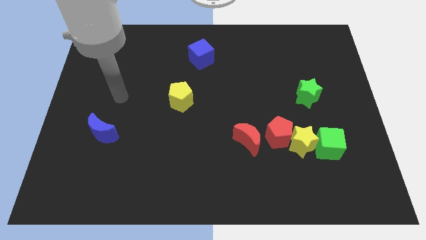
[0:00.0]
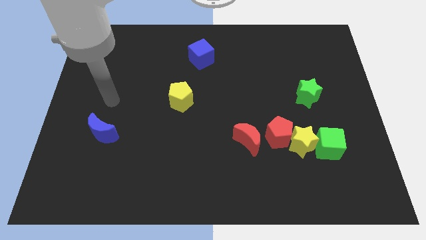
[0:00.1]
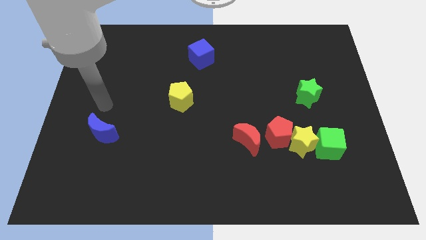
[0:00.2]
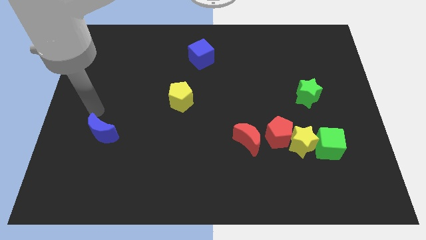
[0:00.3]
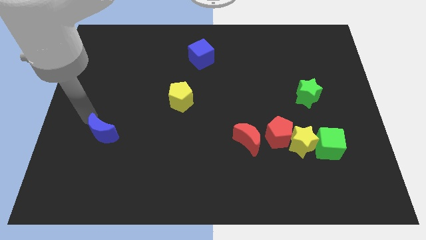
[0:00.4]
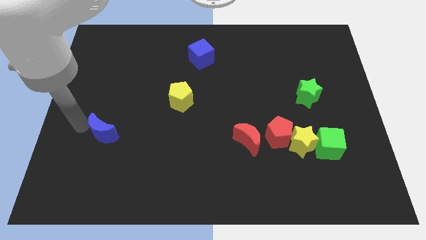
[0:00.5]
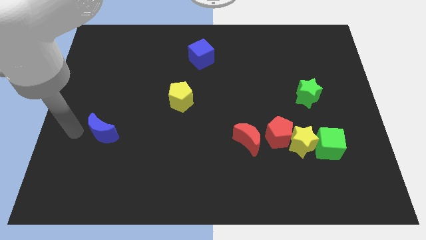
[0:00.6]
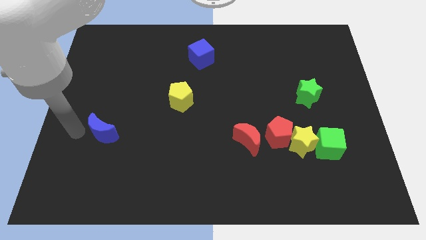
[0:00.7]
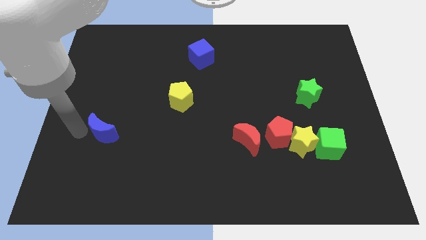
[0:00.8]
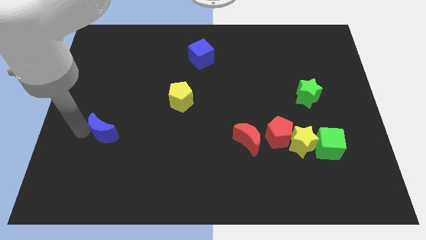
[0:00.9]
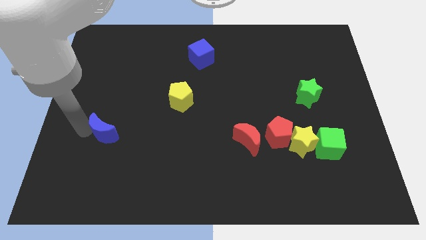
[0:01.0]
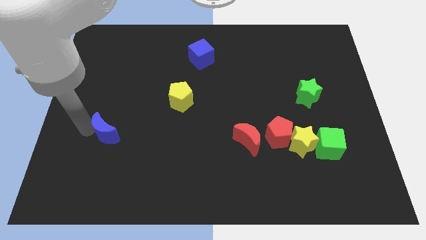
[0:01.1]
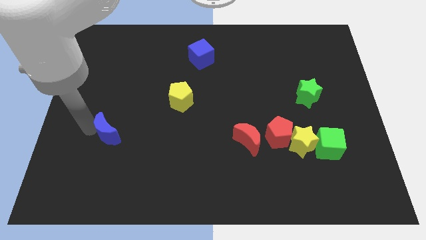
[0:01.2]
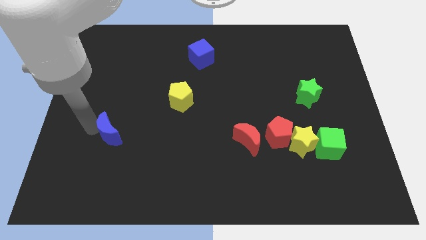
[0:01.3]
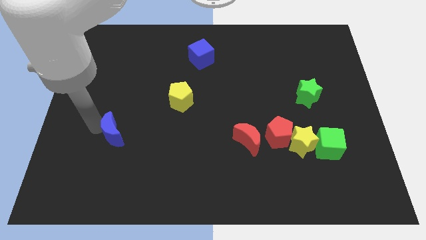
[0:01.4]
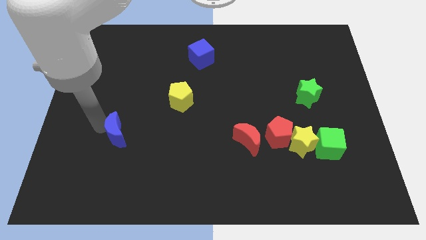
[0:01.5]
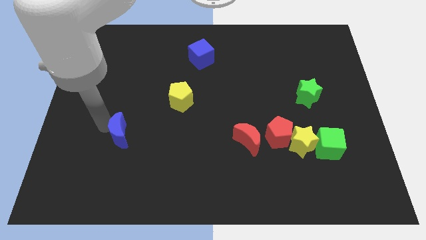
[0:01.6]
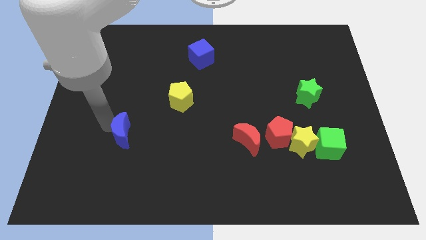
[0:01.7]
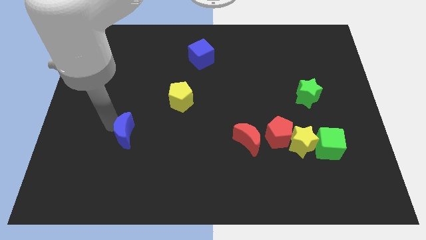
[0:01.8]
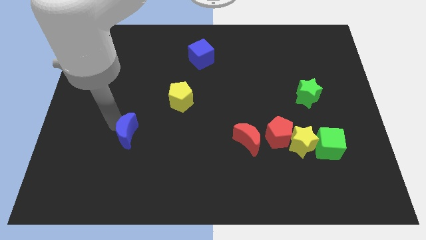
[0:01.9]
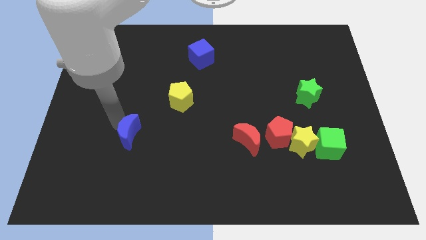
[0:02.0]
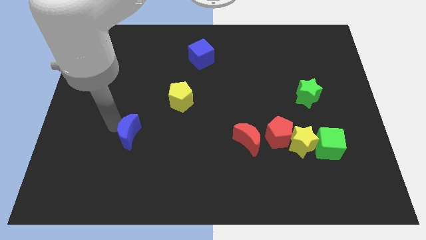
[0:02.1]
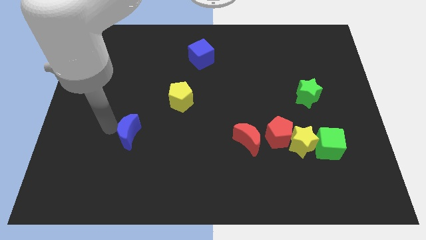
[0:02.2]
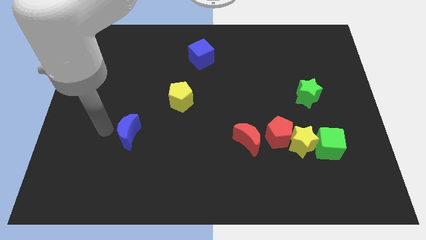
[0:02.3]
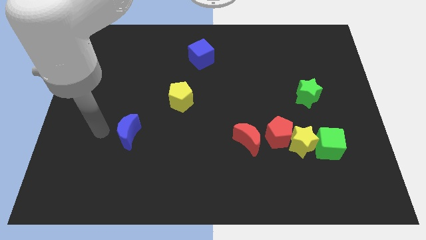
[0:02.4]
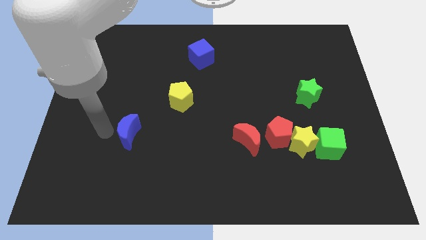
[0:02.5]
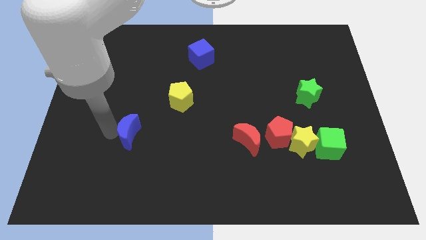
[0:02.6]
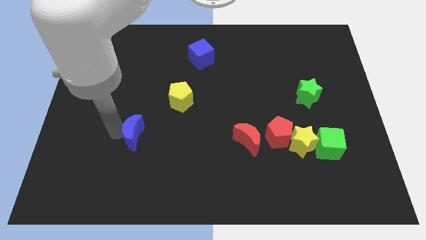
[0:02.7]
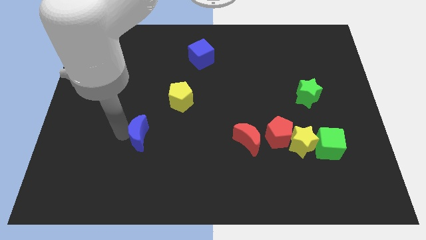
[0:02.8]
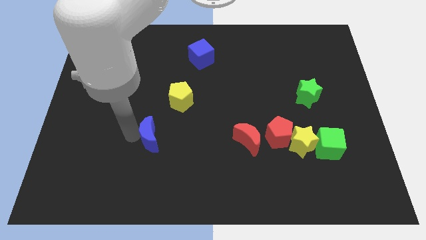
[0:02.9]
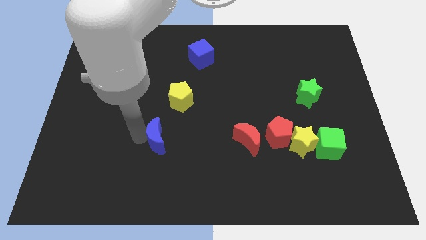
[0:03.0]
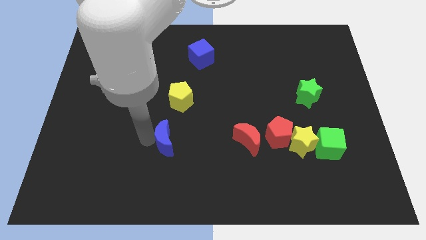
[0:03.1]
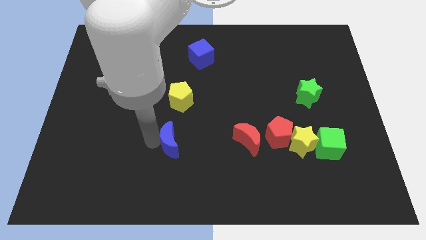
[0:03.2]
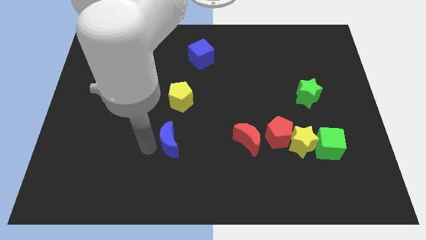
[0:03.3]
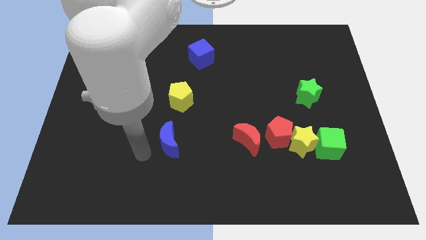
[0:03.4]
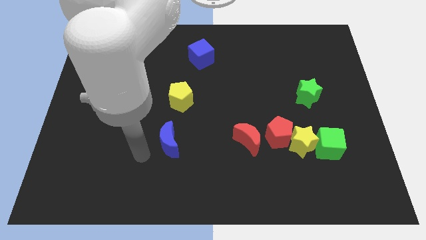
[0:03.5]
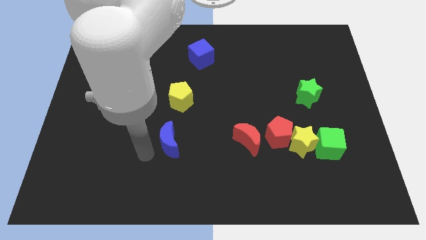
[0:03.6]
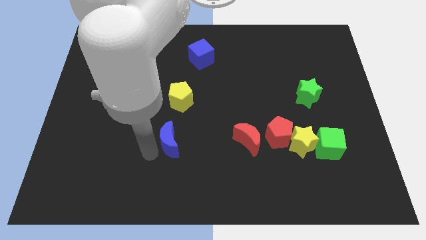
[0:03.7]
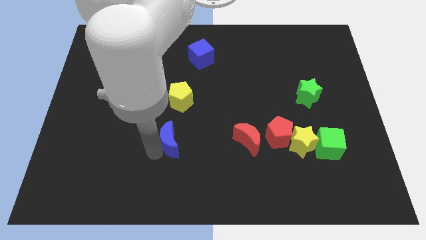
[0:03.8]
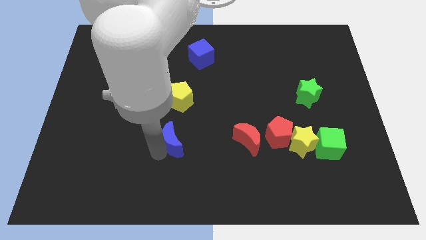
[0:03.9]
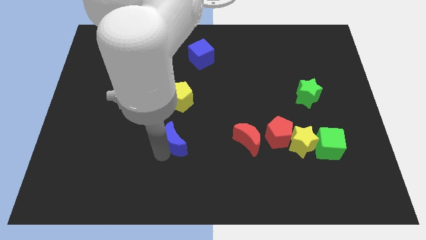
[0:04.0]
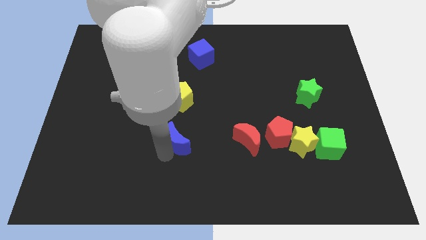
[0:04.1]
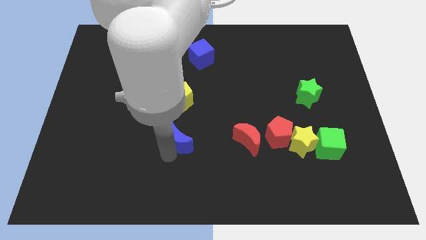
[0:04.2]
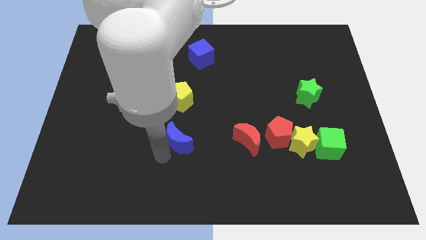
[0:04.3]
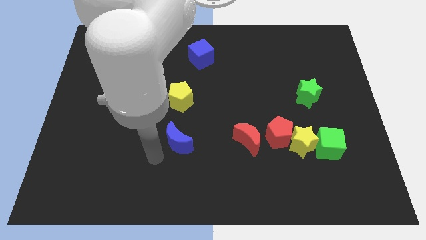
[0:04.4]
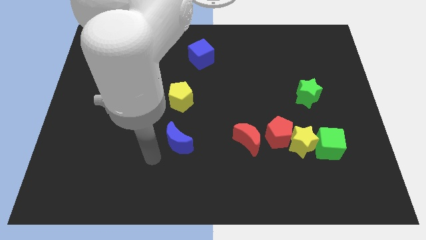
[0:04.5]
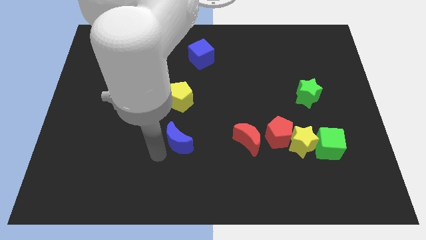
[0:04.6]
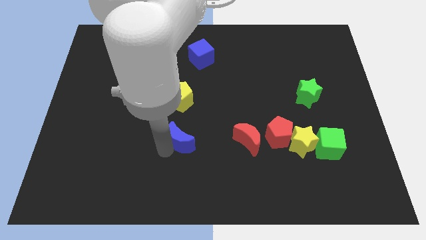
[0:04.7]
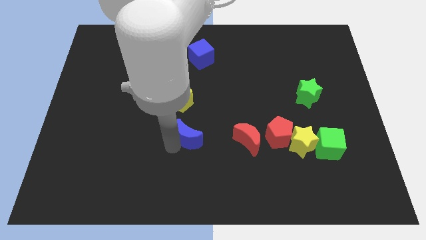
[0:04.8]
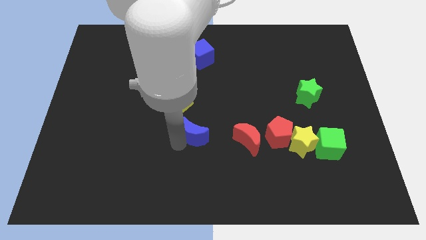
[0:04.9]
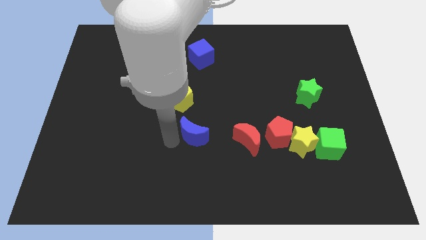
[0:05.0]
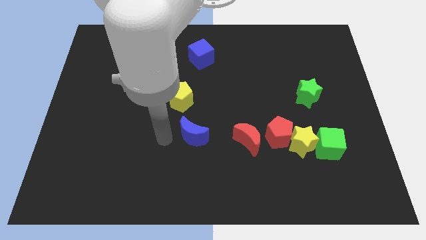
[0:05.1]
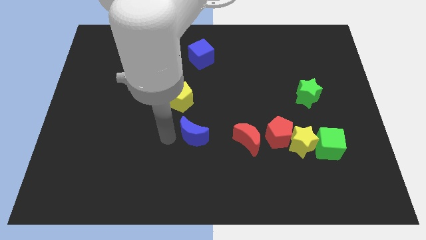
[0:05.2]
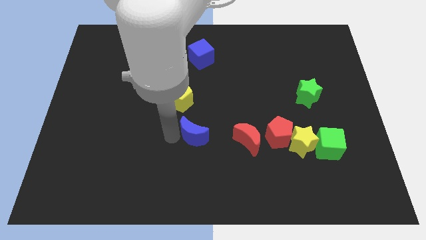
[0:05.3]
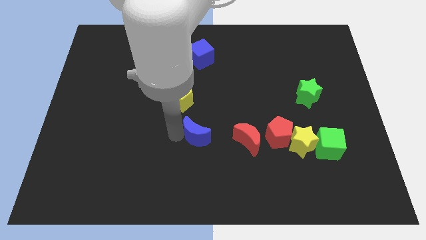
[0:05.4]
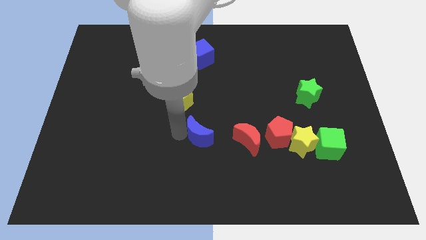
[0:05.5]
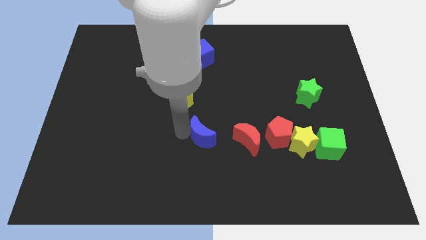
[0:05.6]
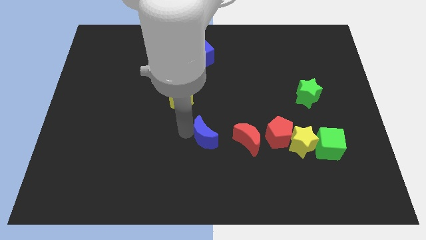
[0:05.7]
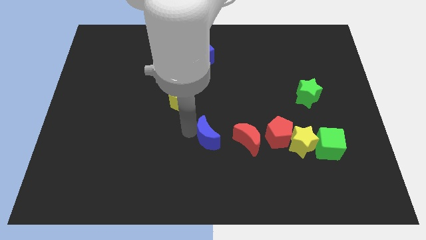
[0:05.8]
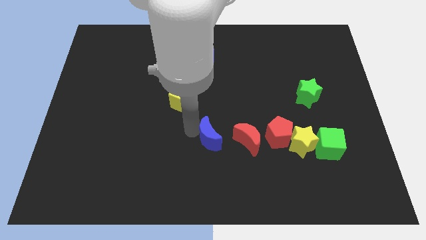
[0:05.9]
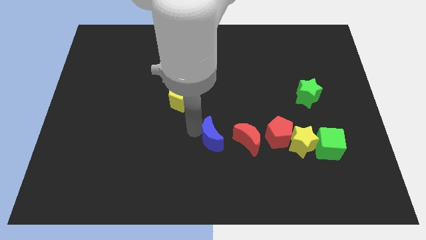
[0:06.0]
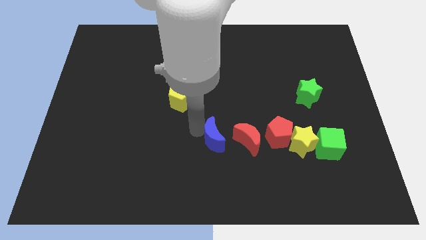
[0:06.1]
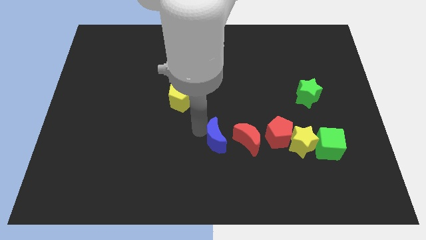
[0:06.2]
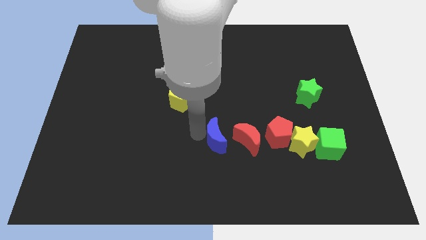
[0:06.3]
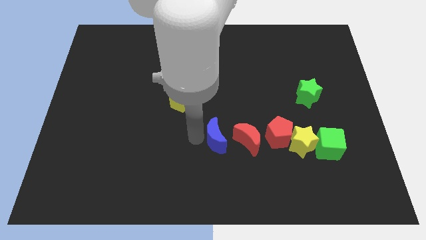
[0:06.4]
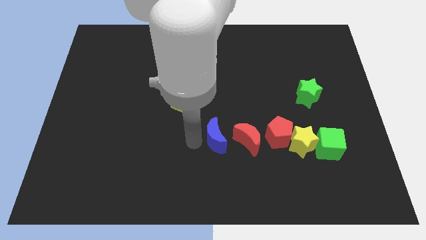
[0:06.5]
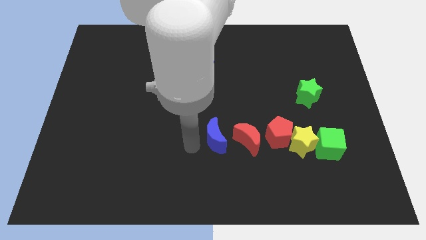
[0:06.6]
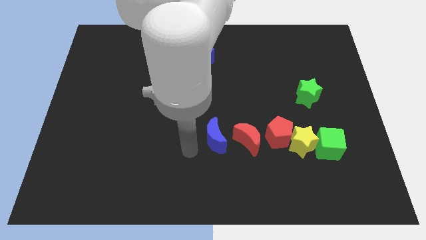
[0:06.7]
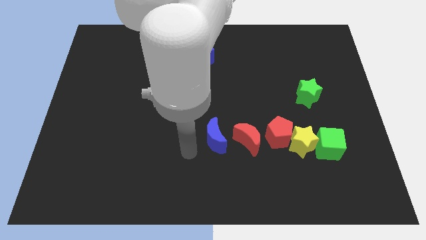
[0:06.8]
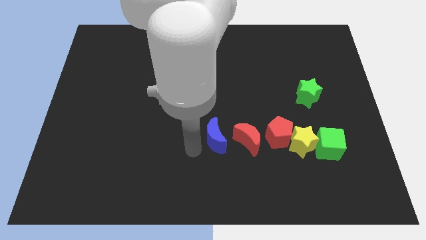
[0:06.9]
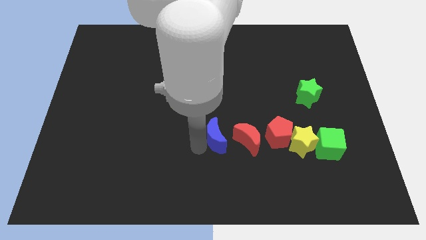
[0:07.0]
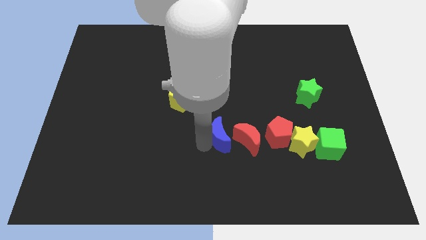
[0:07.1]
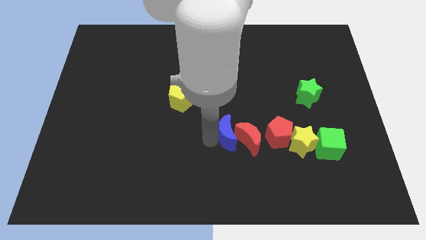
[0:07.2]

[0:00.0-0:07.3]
push the blue moon to the red moon

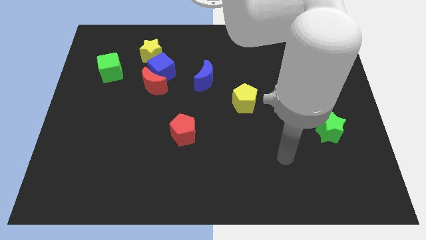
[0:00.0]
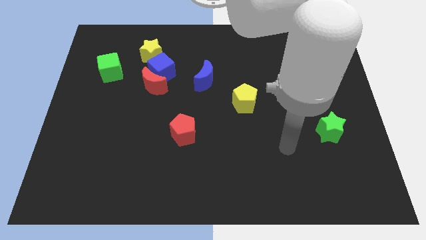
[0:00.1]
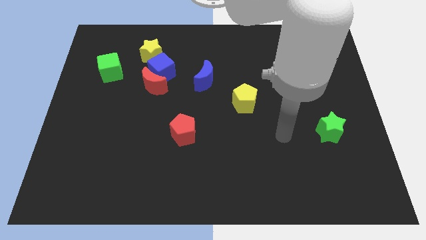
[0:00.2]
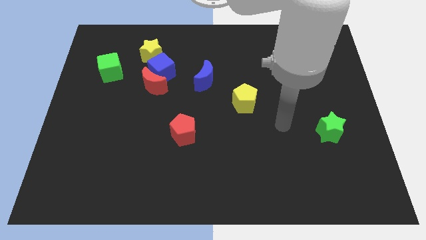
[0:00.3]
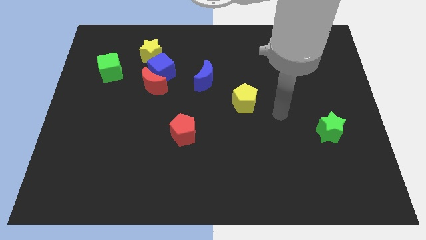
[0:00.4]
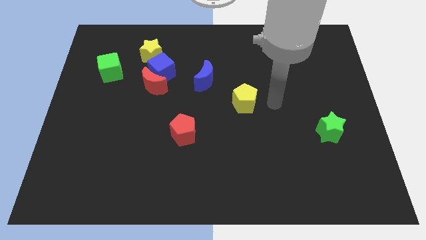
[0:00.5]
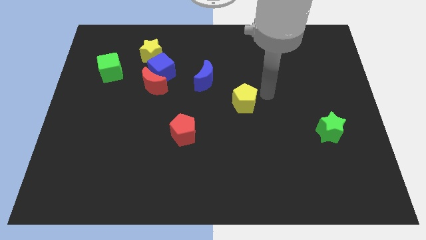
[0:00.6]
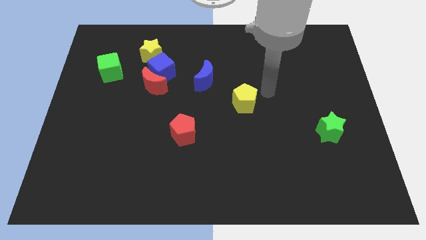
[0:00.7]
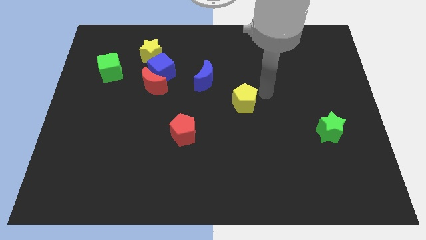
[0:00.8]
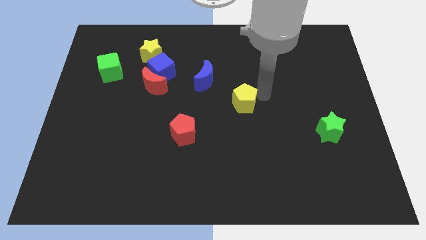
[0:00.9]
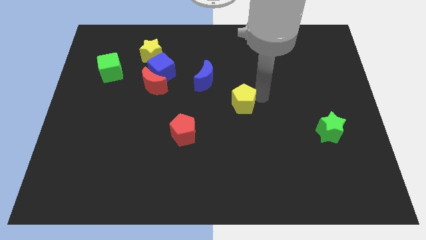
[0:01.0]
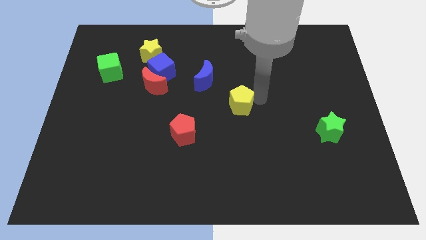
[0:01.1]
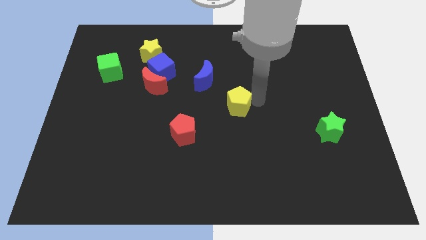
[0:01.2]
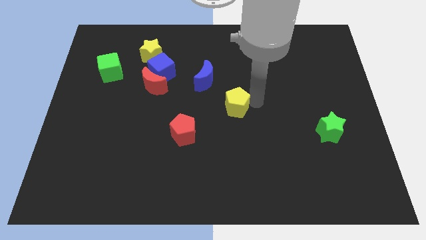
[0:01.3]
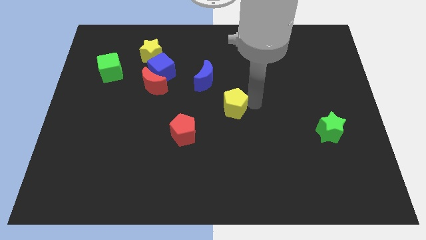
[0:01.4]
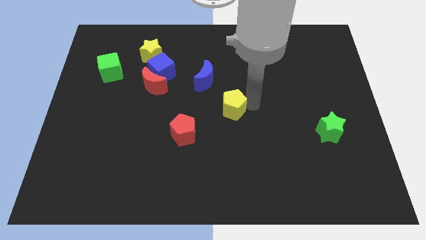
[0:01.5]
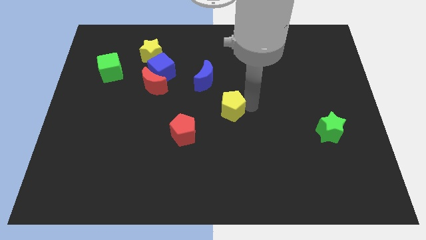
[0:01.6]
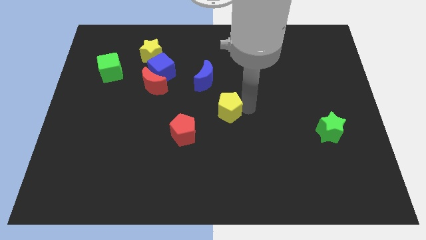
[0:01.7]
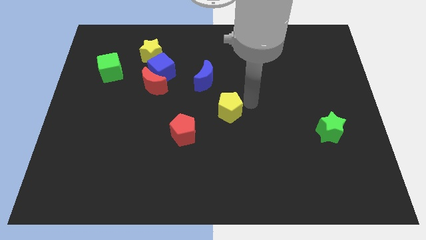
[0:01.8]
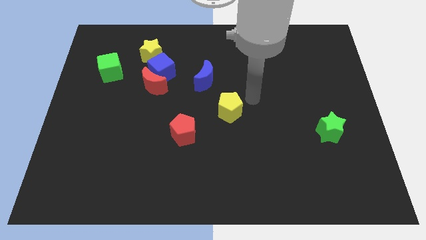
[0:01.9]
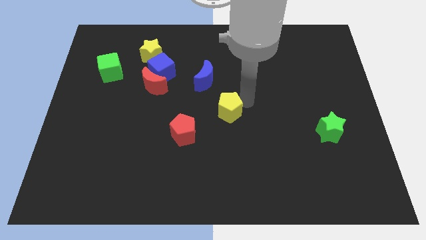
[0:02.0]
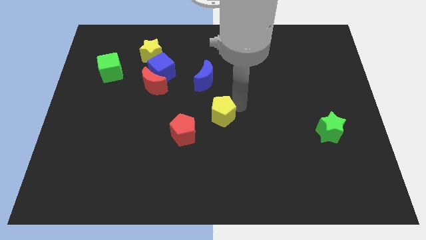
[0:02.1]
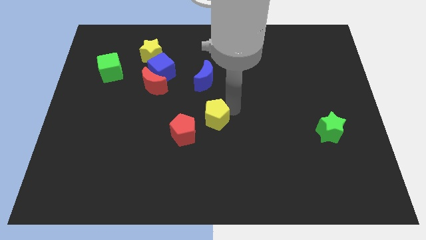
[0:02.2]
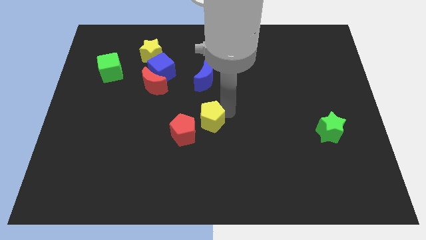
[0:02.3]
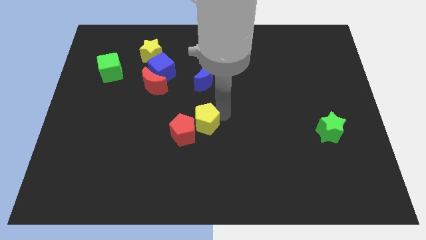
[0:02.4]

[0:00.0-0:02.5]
slide the yellow pentagon towards the red pentagon
